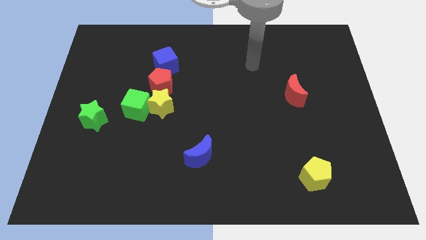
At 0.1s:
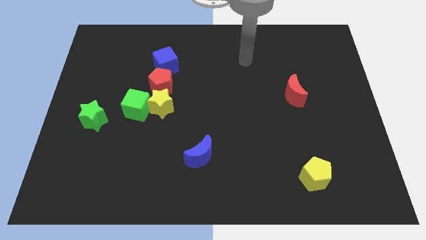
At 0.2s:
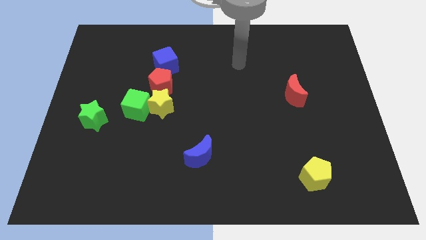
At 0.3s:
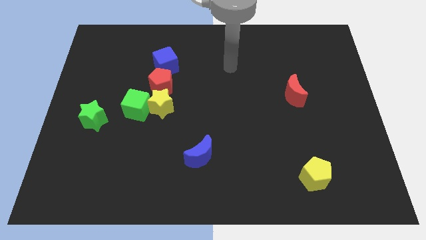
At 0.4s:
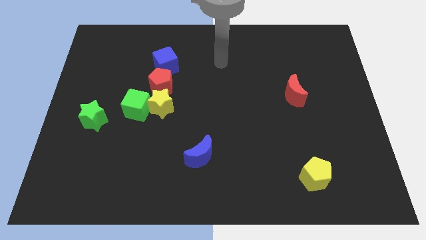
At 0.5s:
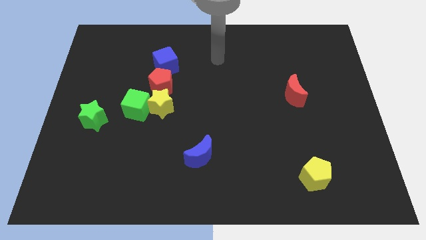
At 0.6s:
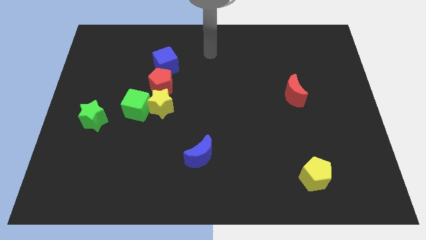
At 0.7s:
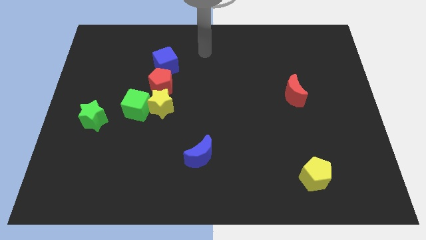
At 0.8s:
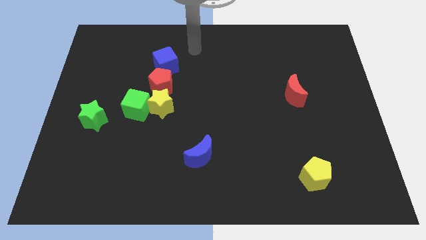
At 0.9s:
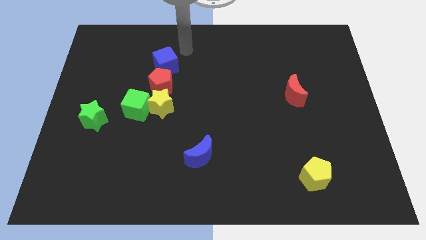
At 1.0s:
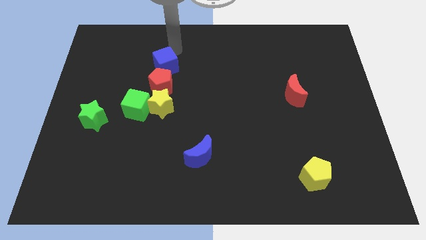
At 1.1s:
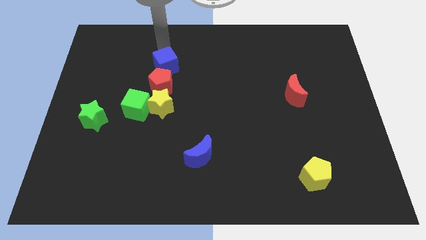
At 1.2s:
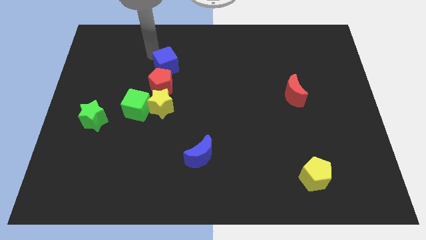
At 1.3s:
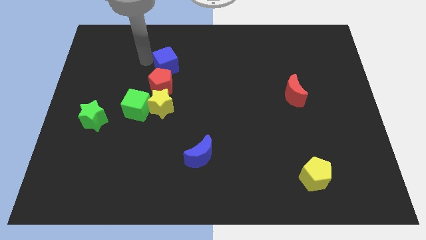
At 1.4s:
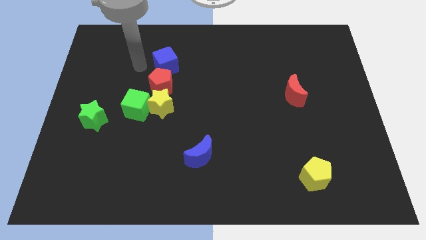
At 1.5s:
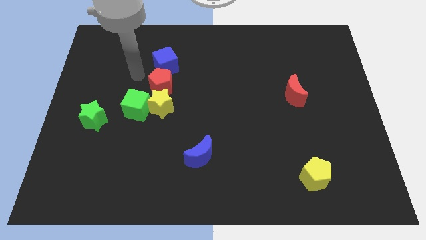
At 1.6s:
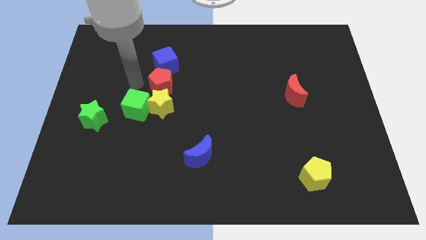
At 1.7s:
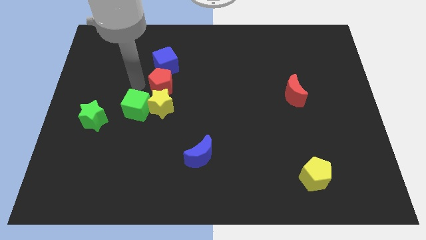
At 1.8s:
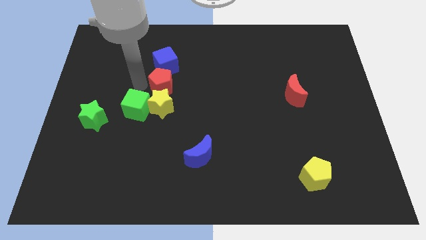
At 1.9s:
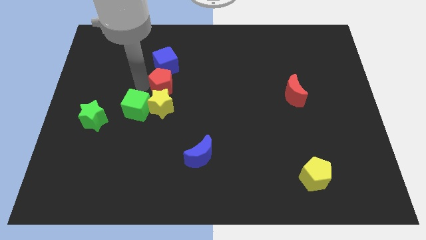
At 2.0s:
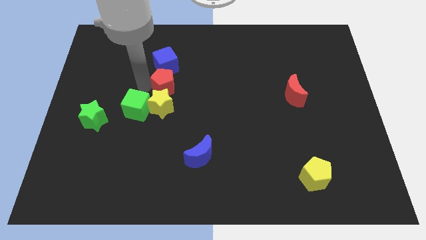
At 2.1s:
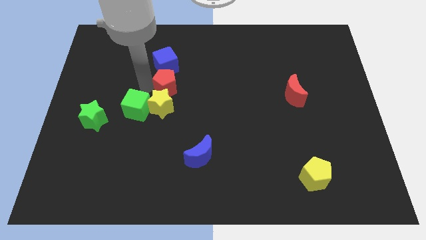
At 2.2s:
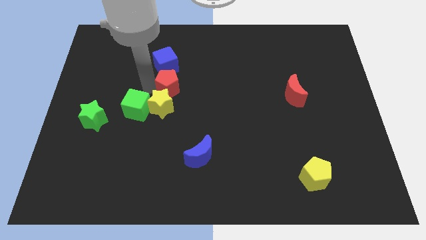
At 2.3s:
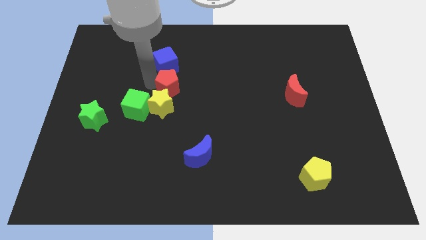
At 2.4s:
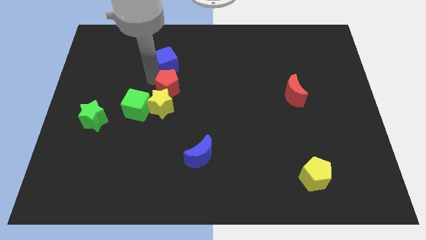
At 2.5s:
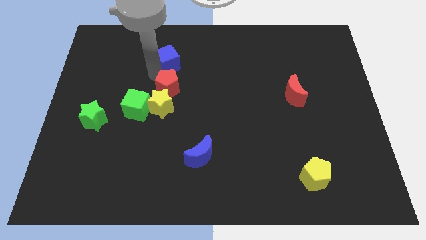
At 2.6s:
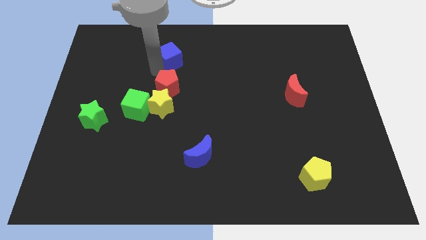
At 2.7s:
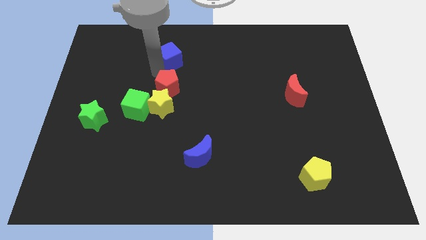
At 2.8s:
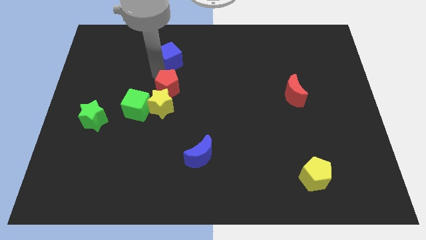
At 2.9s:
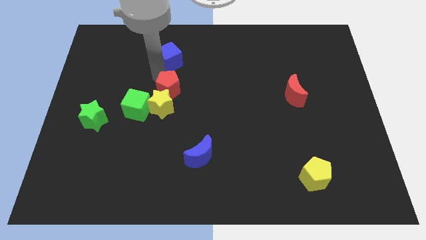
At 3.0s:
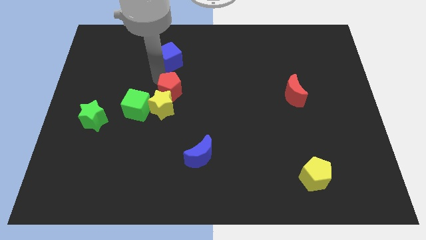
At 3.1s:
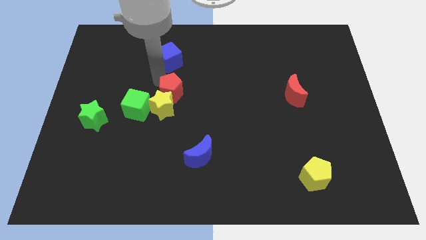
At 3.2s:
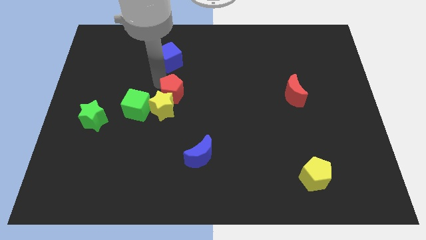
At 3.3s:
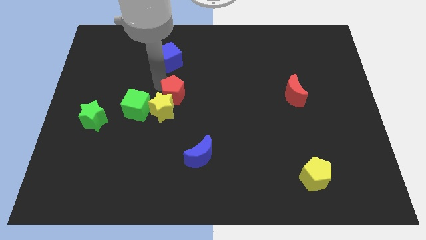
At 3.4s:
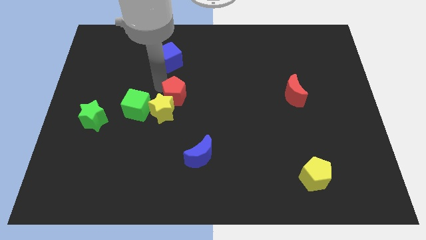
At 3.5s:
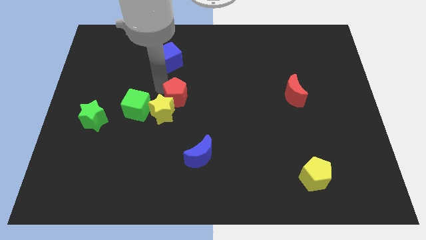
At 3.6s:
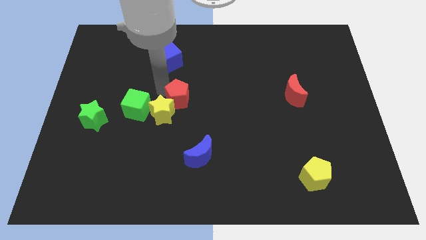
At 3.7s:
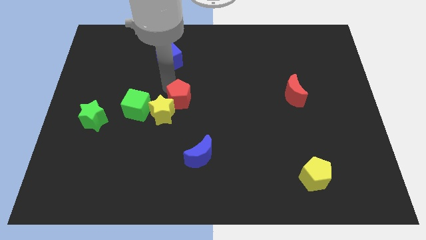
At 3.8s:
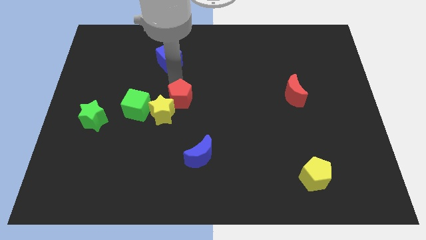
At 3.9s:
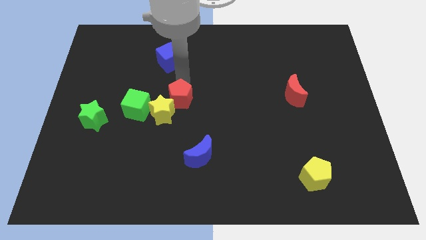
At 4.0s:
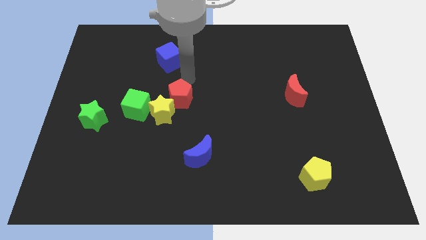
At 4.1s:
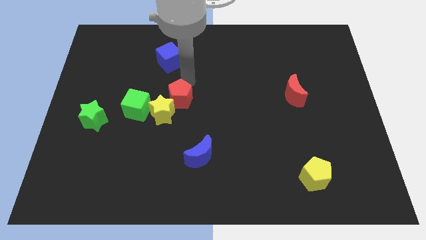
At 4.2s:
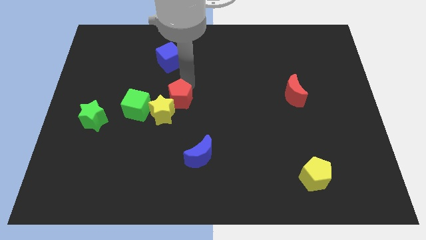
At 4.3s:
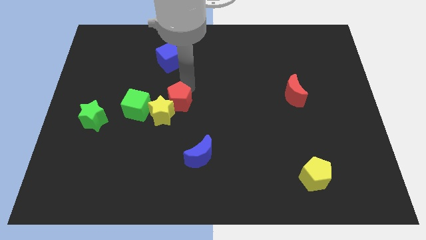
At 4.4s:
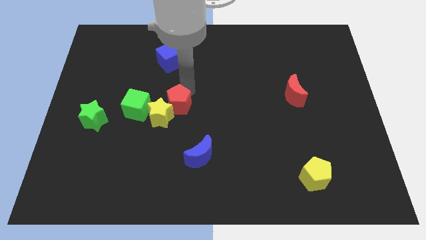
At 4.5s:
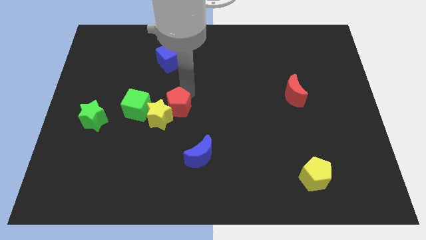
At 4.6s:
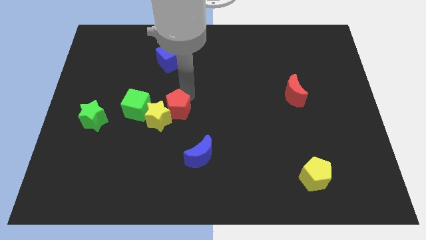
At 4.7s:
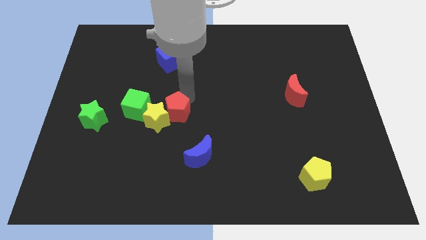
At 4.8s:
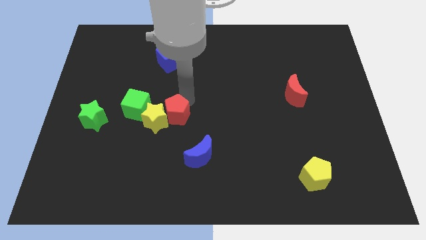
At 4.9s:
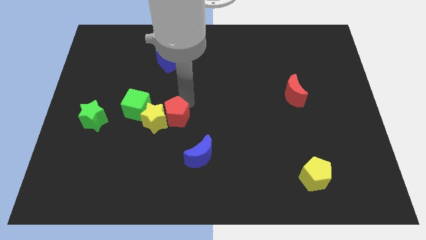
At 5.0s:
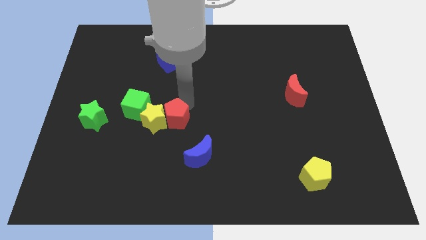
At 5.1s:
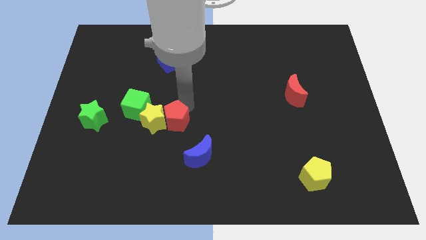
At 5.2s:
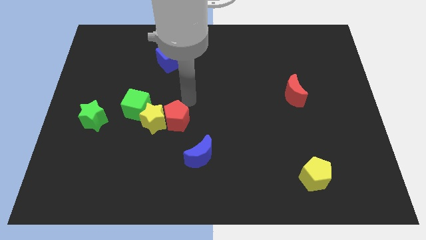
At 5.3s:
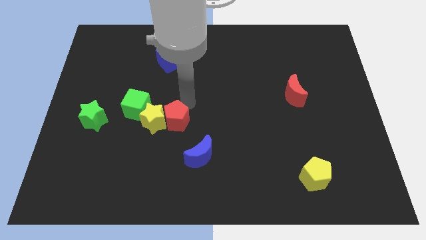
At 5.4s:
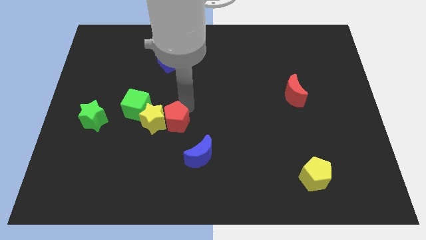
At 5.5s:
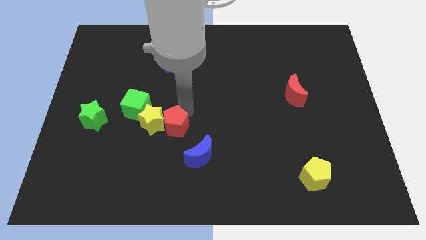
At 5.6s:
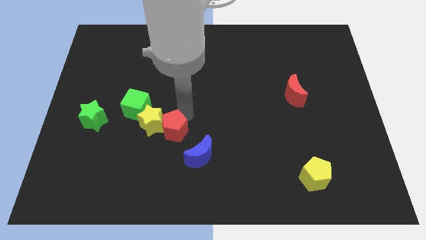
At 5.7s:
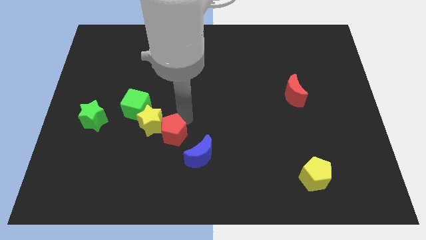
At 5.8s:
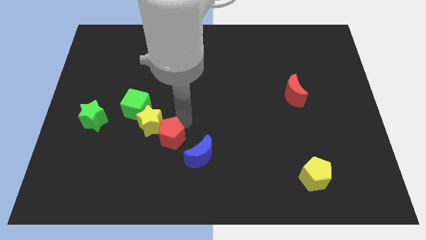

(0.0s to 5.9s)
move the red pentagon below the yellow star

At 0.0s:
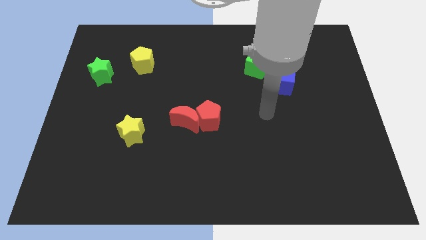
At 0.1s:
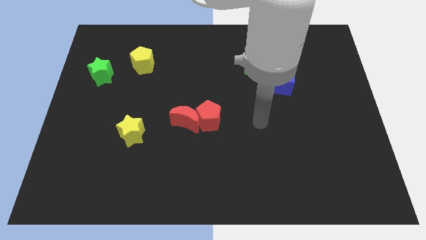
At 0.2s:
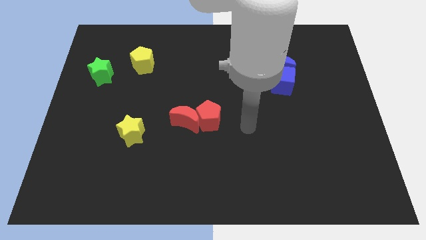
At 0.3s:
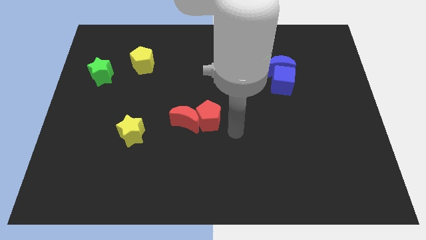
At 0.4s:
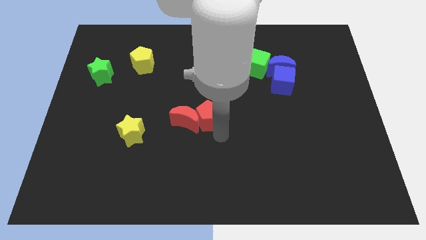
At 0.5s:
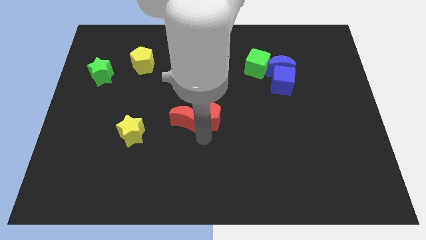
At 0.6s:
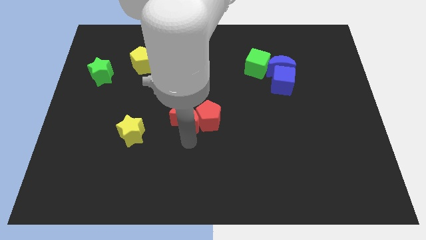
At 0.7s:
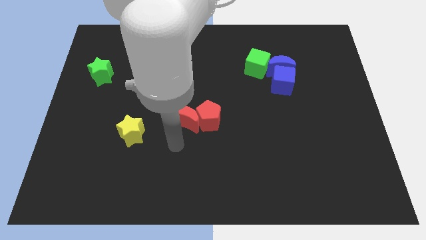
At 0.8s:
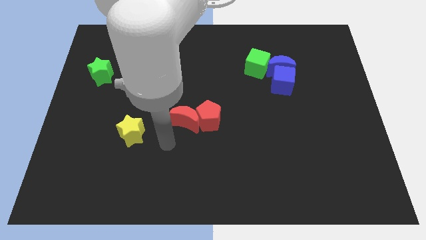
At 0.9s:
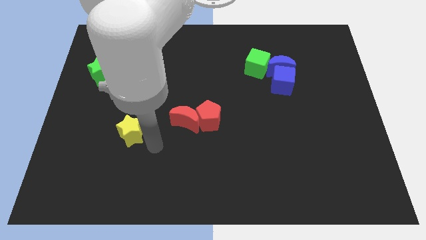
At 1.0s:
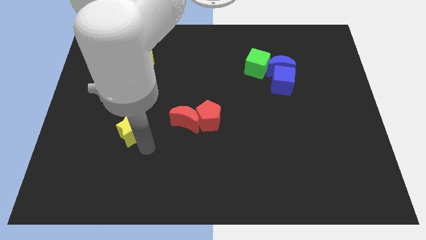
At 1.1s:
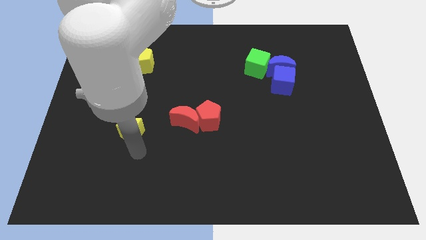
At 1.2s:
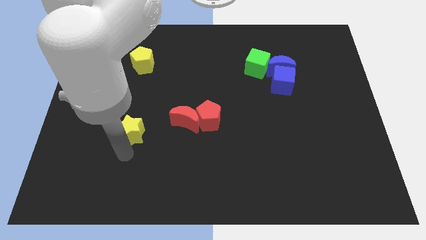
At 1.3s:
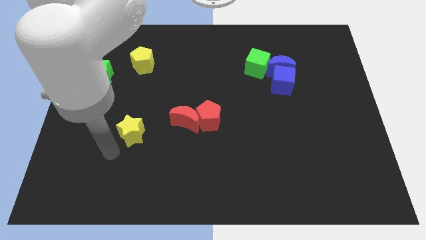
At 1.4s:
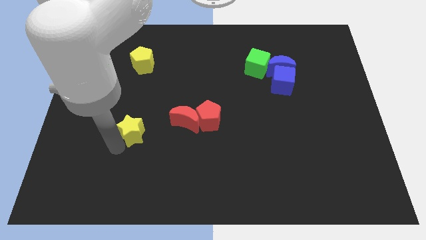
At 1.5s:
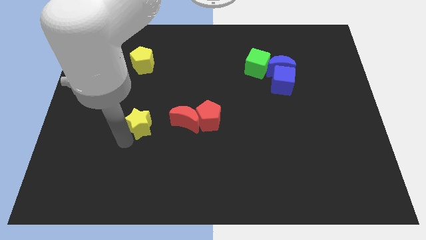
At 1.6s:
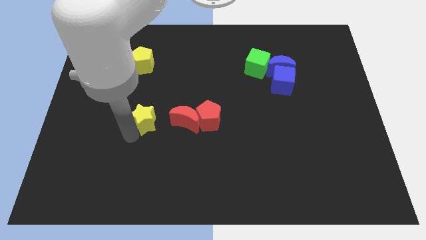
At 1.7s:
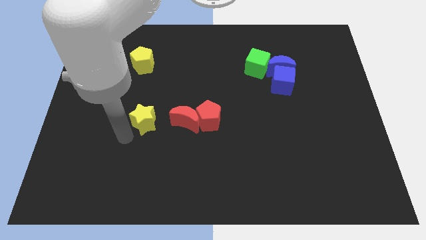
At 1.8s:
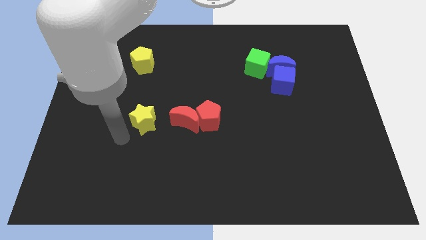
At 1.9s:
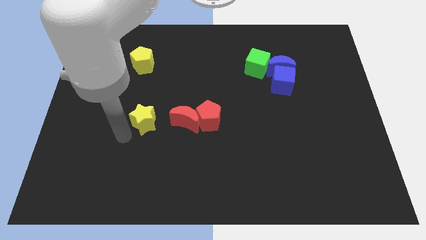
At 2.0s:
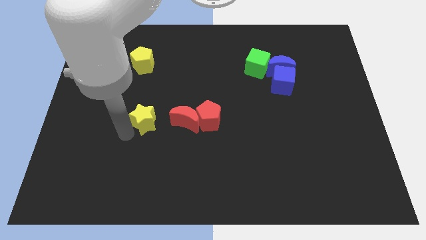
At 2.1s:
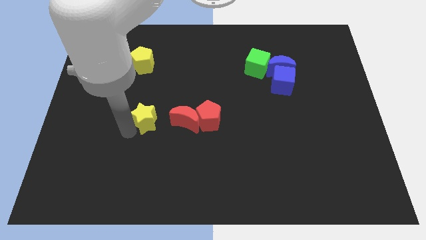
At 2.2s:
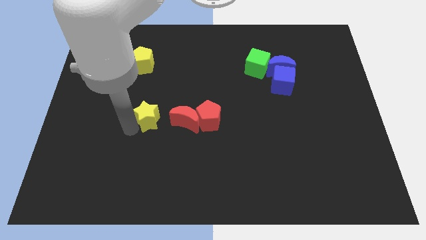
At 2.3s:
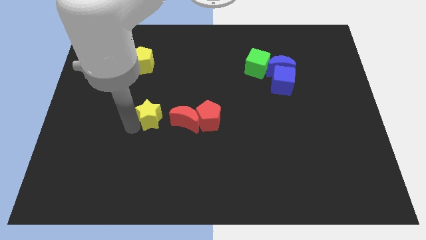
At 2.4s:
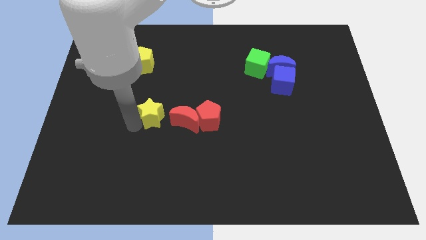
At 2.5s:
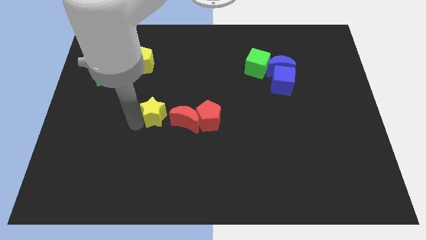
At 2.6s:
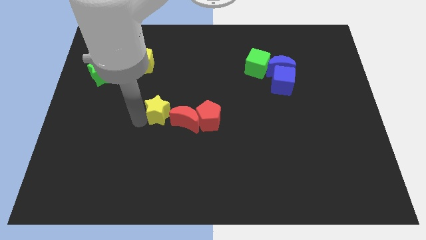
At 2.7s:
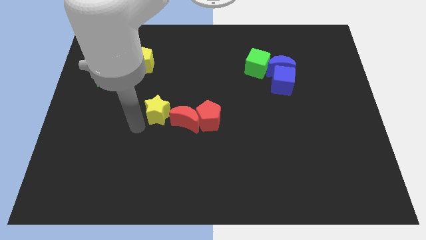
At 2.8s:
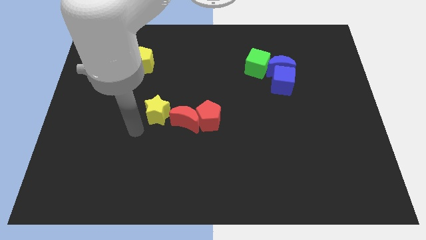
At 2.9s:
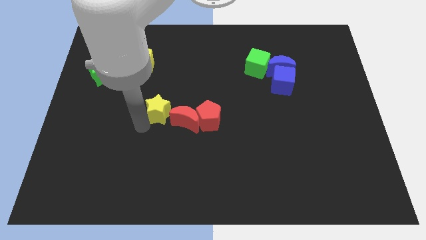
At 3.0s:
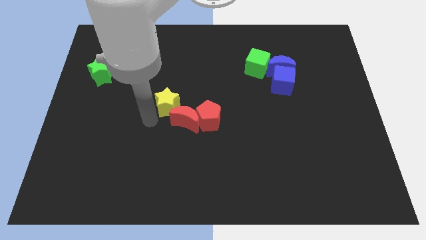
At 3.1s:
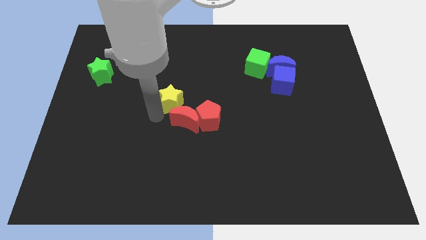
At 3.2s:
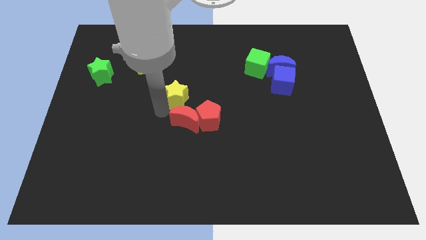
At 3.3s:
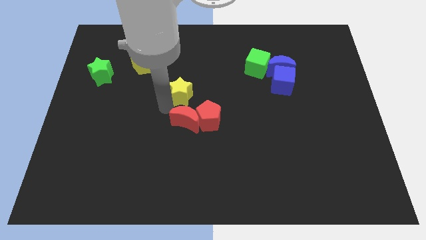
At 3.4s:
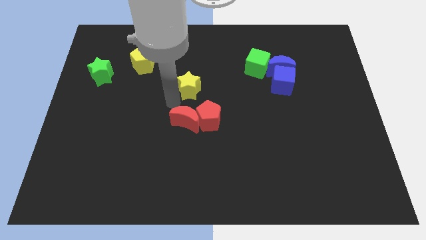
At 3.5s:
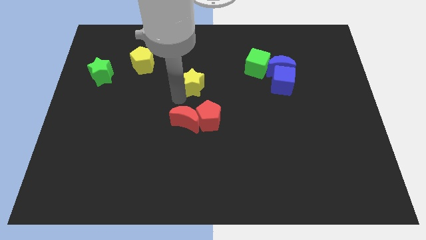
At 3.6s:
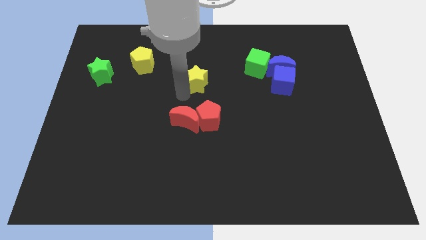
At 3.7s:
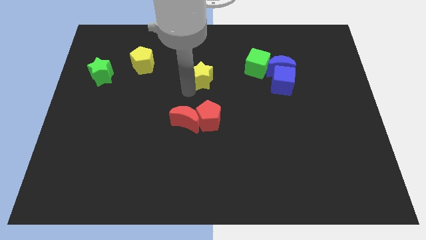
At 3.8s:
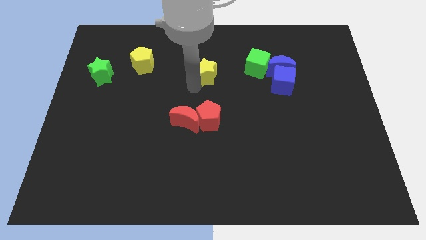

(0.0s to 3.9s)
push the yellow star just left of the green cube
